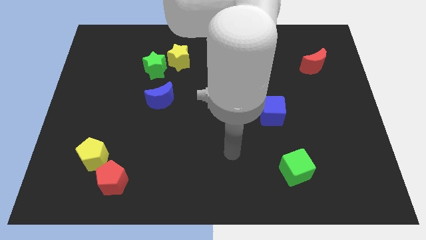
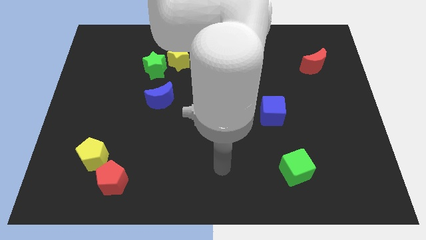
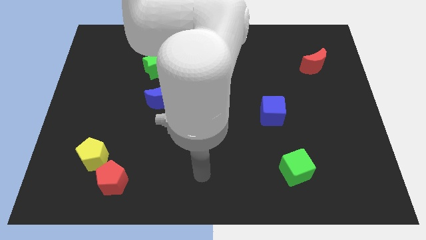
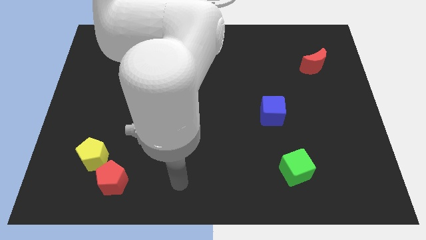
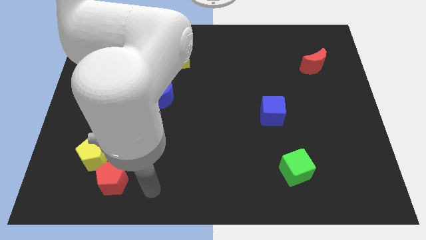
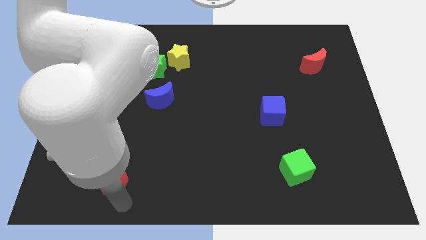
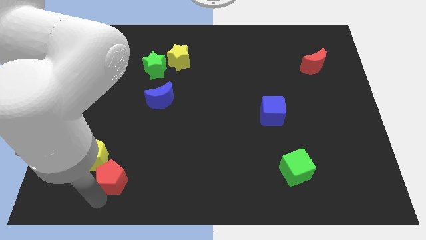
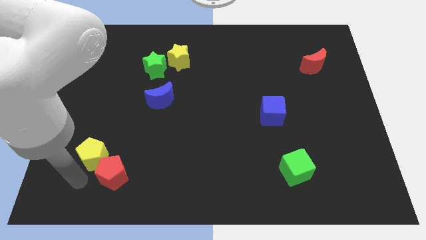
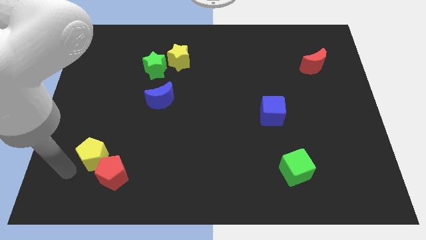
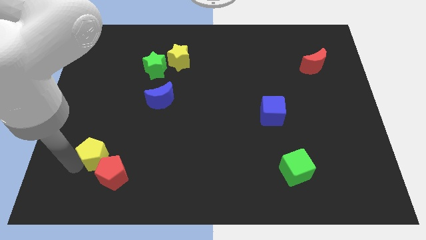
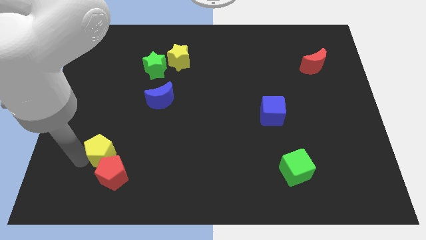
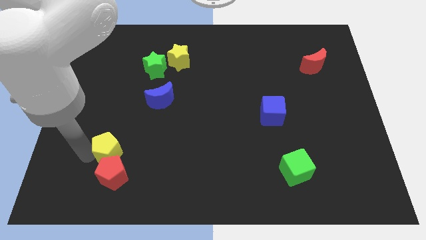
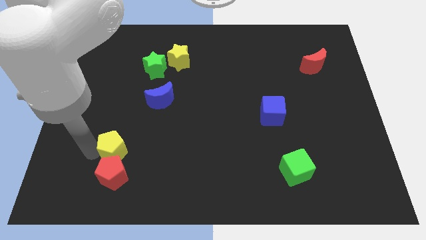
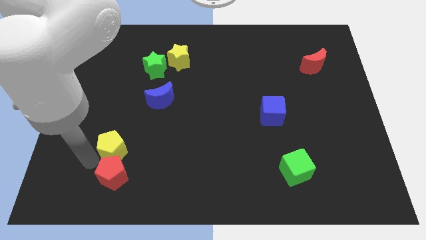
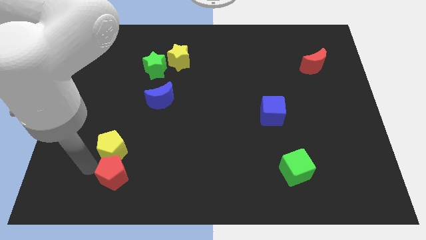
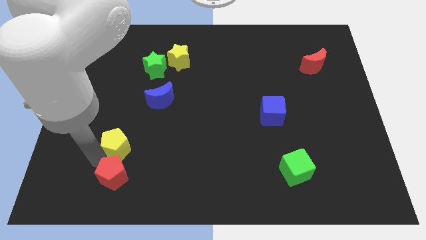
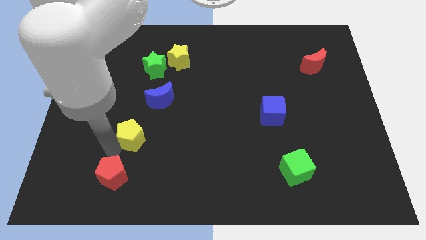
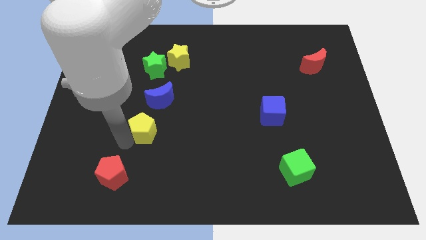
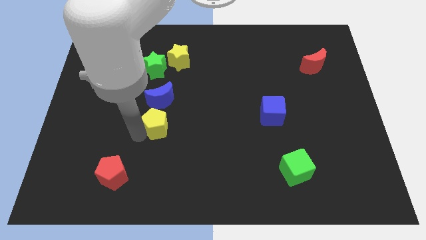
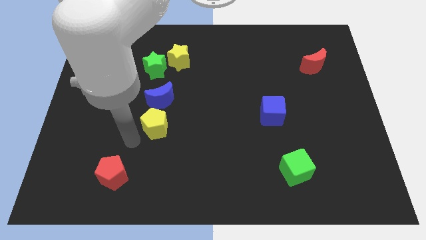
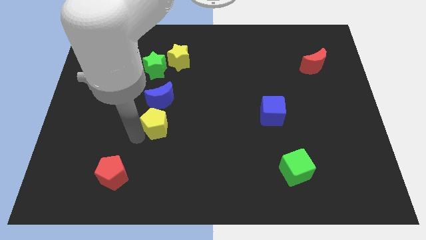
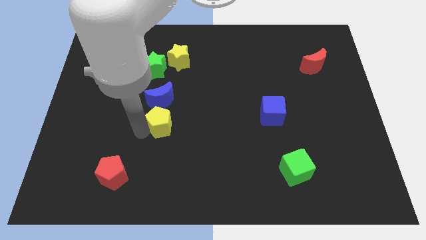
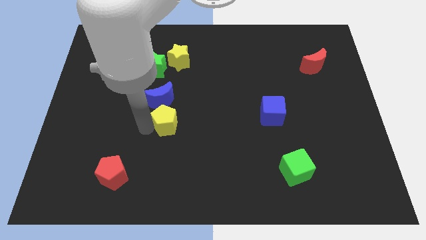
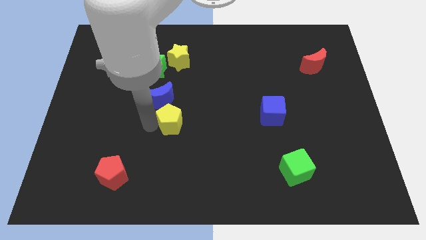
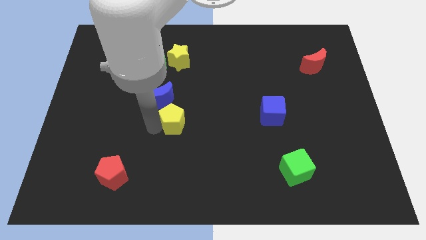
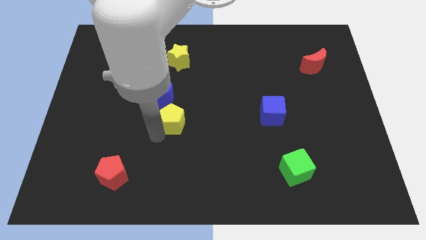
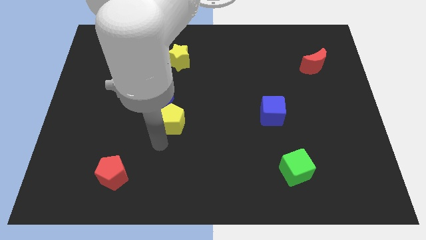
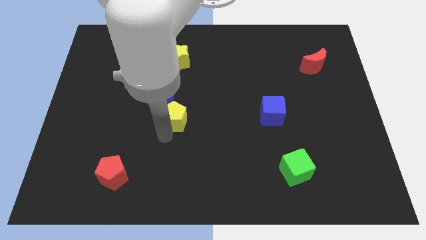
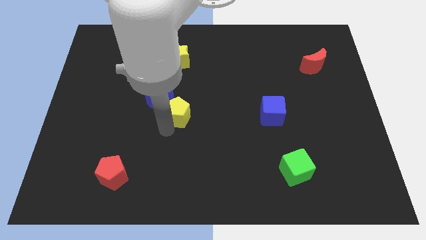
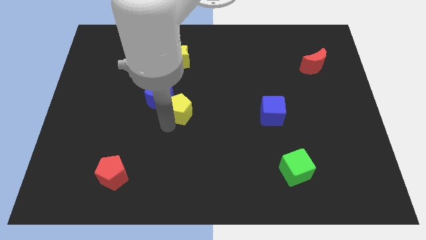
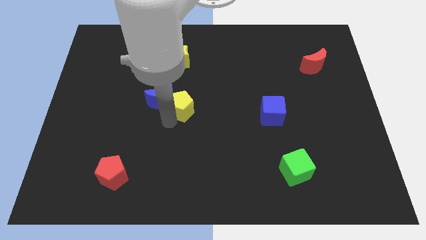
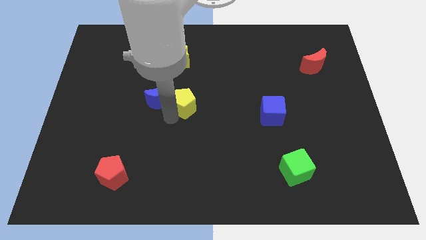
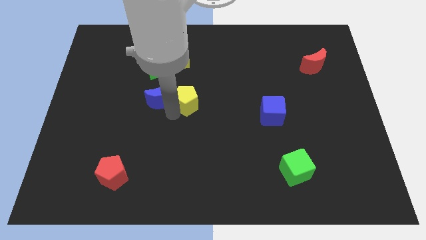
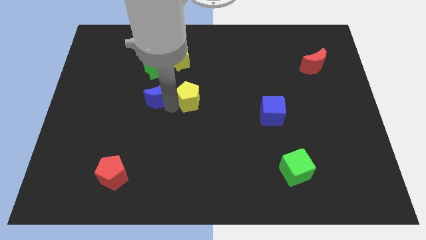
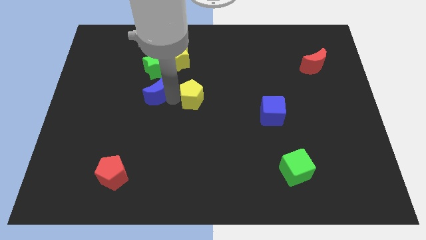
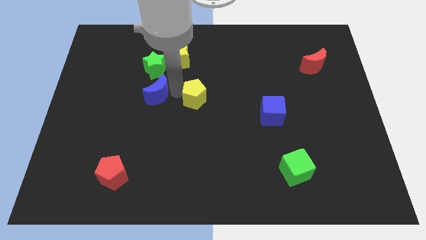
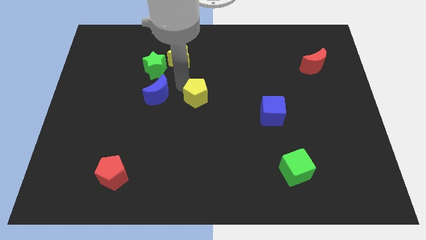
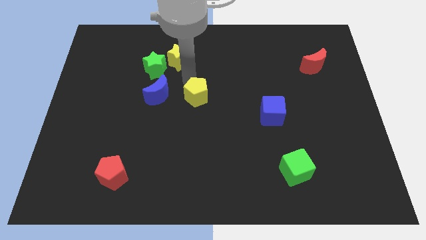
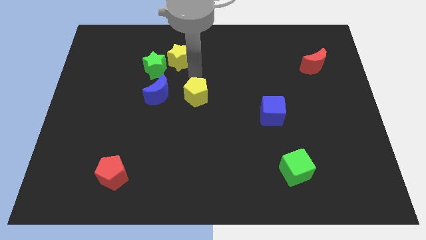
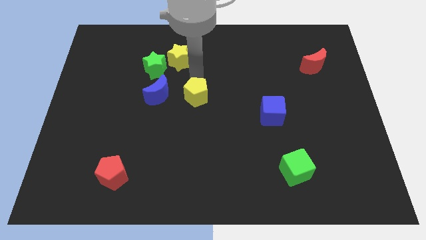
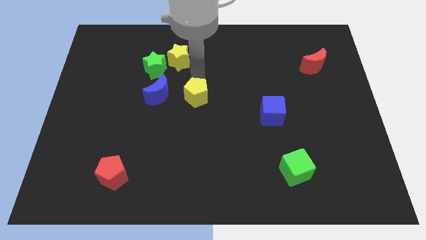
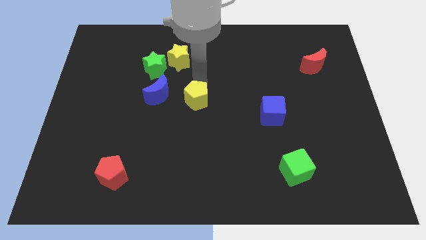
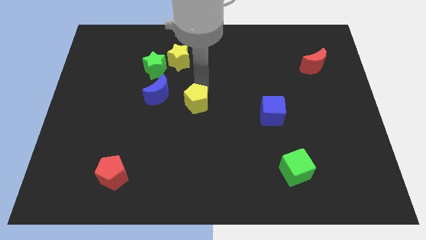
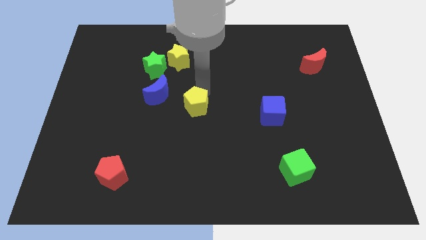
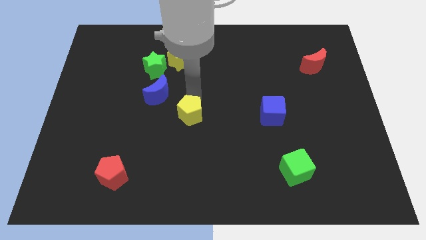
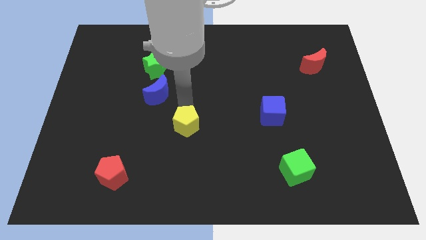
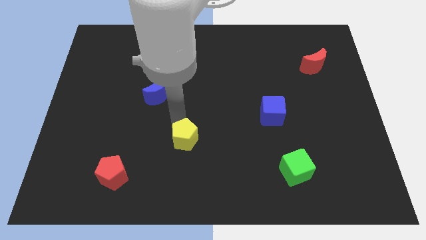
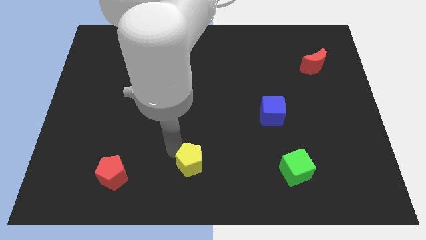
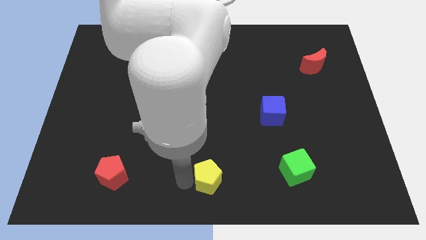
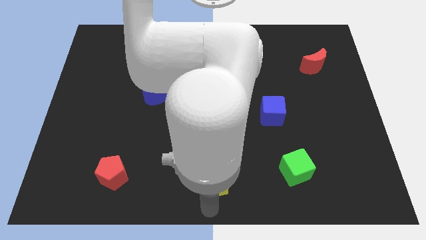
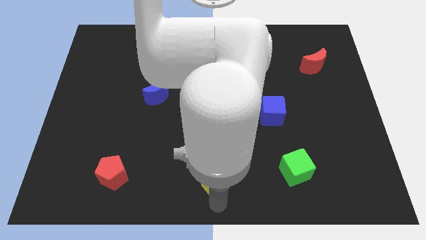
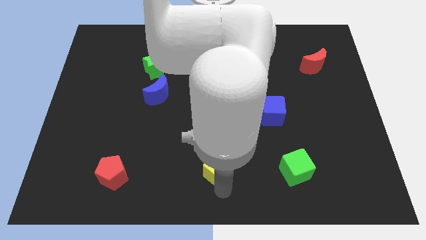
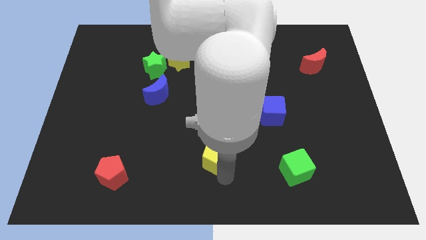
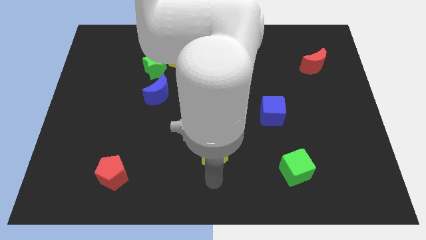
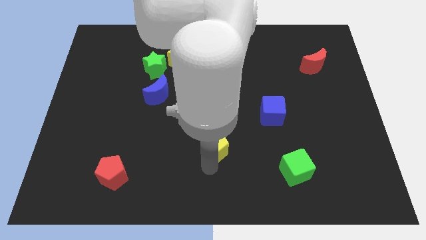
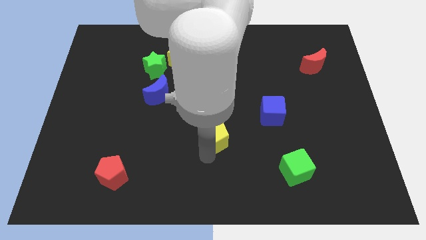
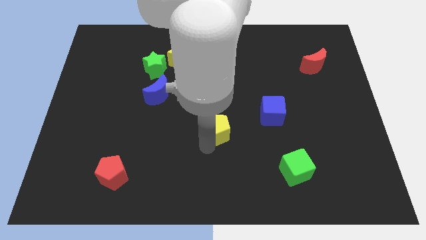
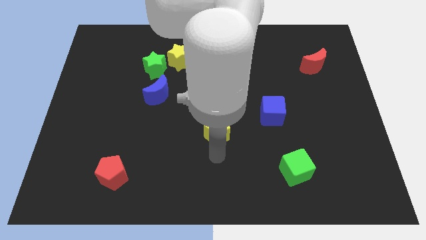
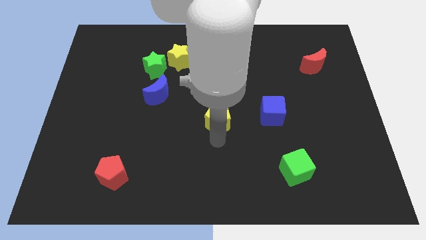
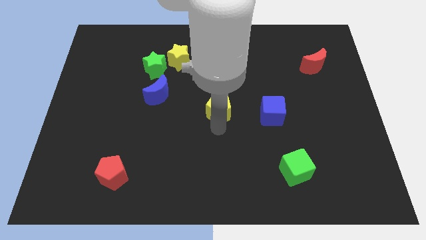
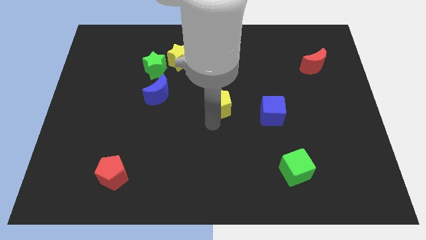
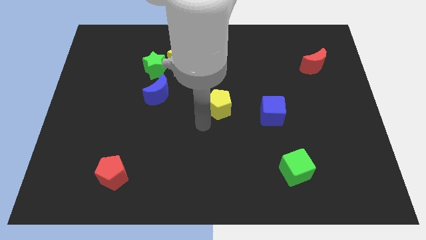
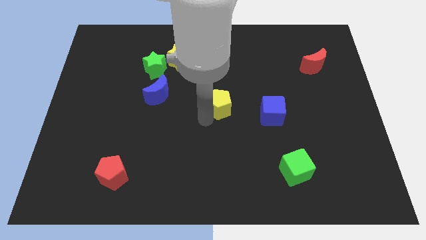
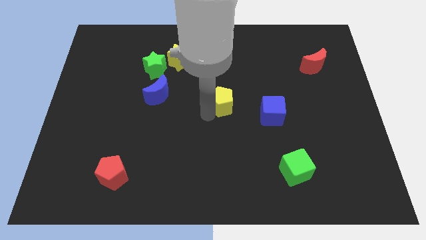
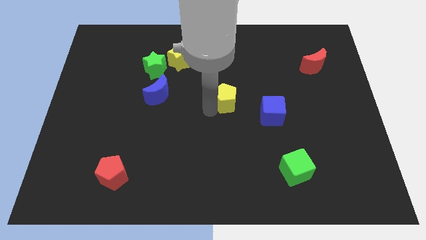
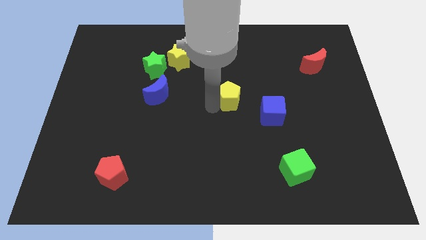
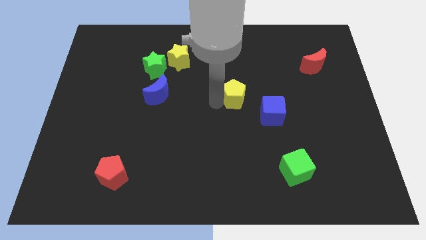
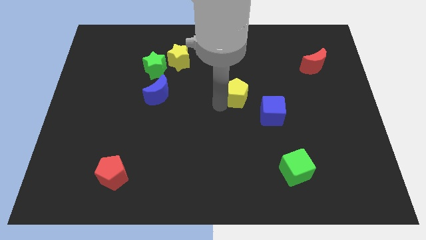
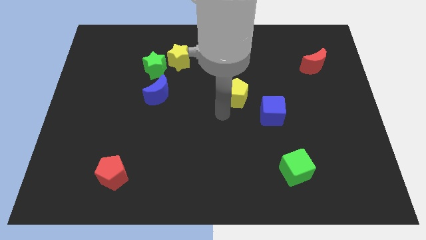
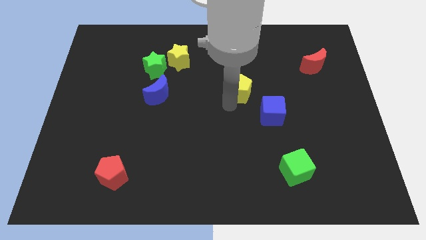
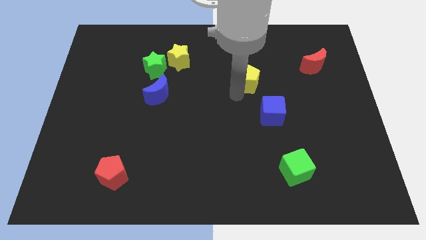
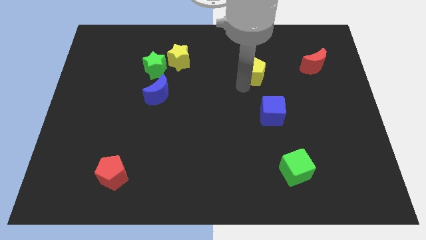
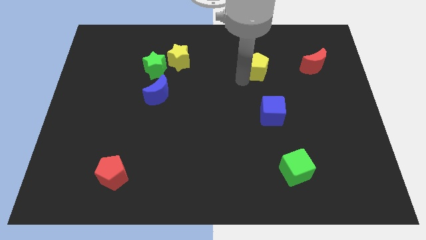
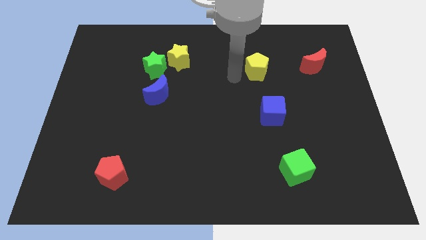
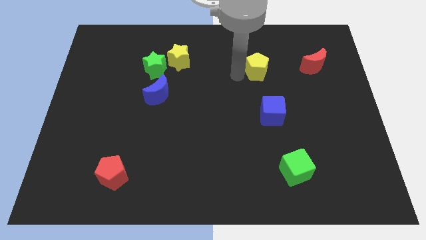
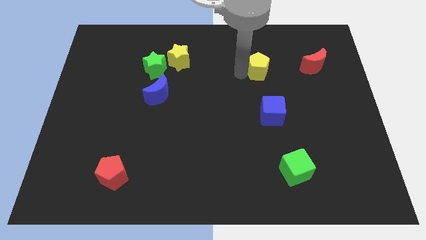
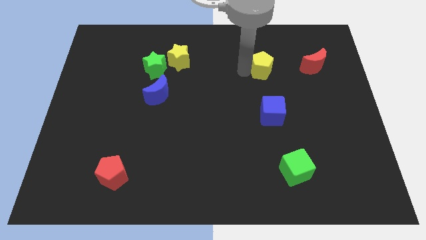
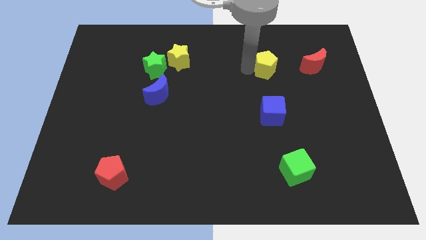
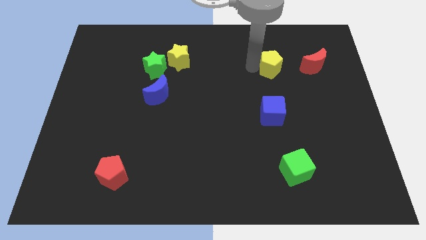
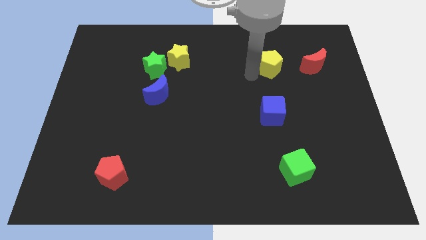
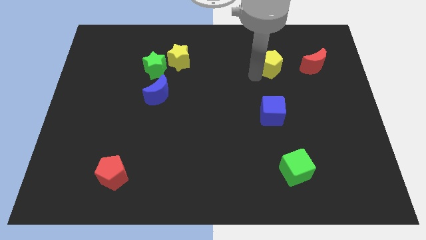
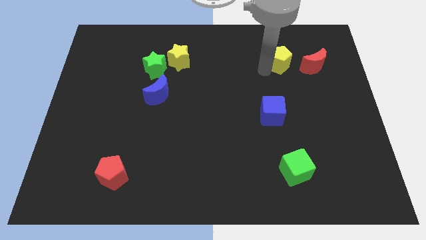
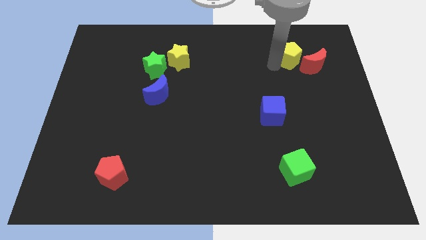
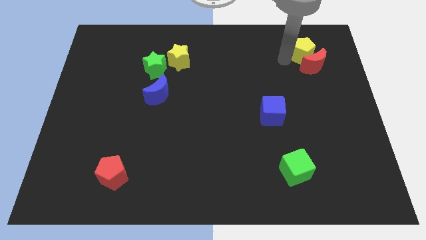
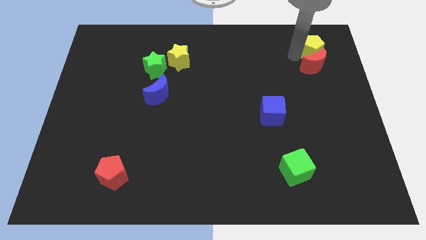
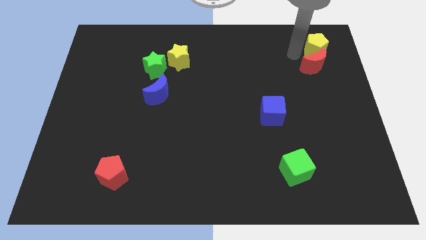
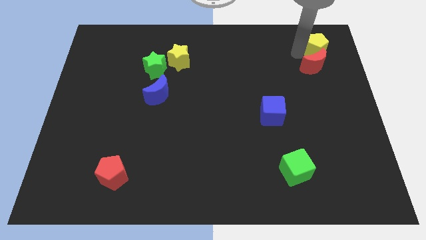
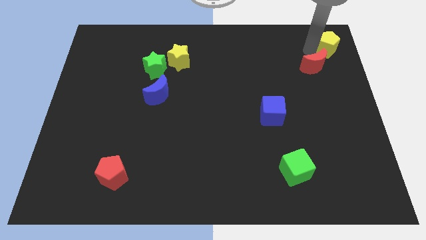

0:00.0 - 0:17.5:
move the yellow pentagon to the top right
